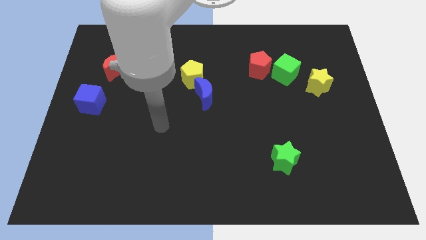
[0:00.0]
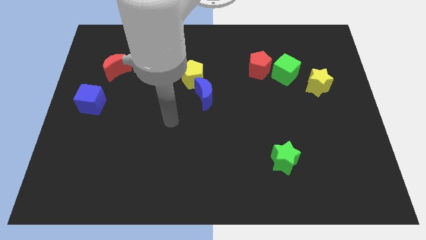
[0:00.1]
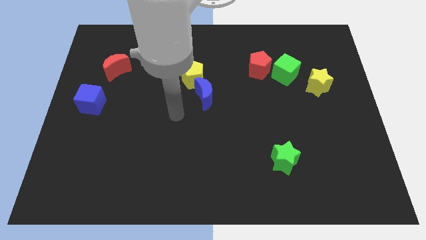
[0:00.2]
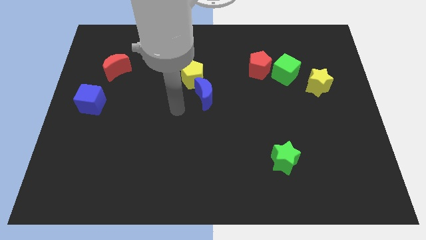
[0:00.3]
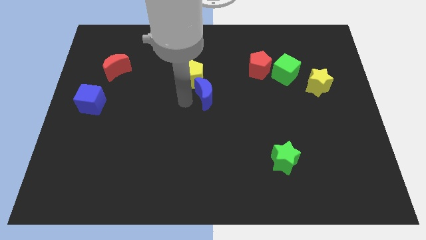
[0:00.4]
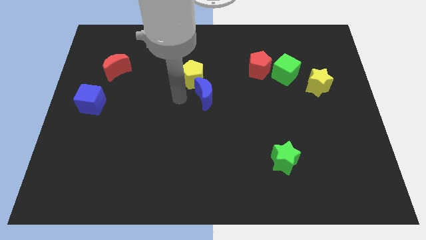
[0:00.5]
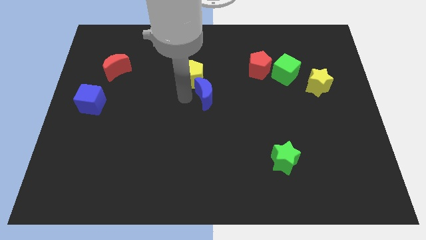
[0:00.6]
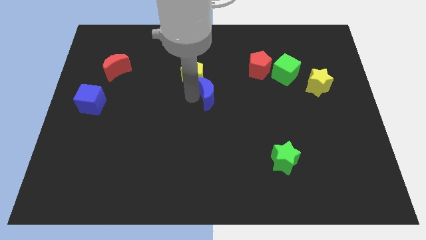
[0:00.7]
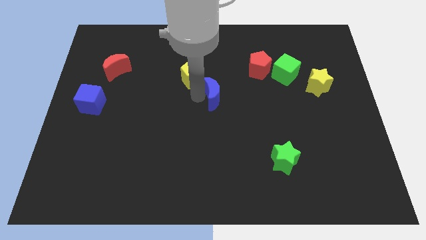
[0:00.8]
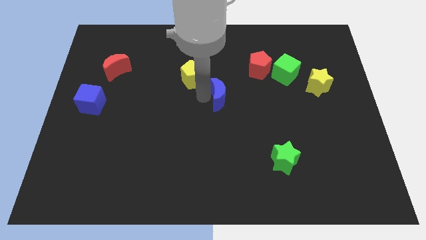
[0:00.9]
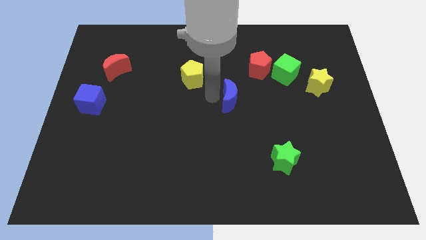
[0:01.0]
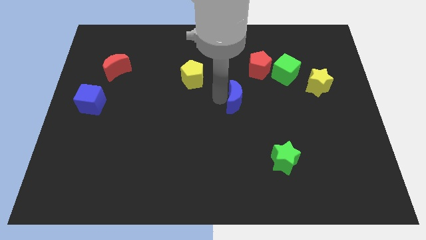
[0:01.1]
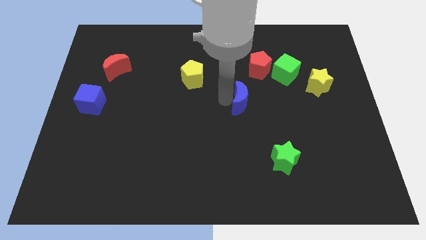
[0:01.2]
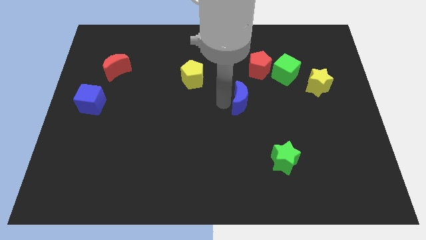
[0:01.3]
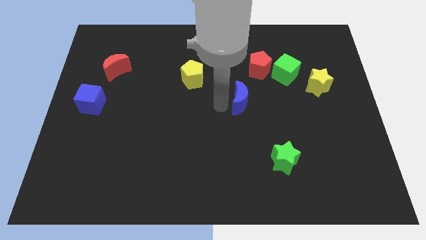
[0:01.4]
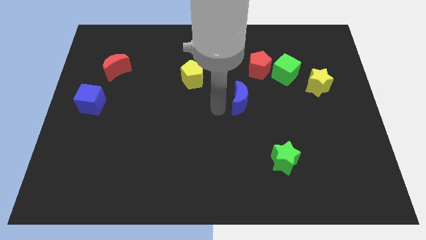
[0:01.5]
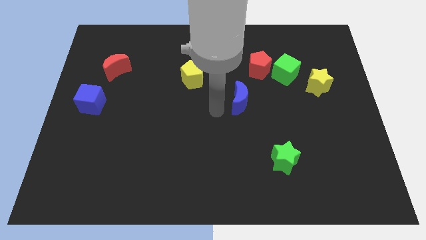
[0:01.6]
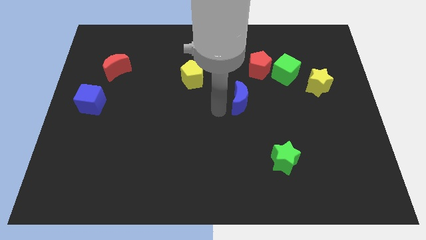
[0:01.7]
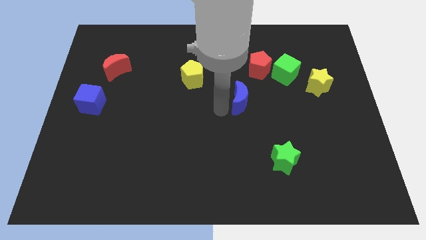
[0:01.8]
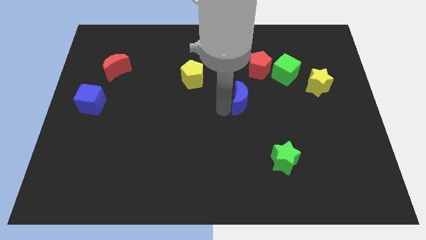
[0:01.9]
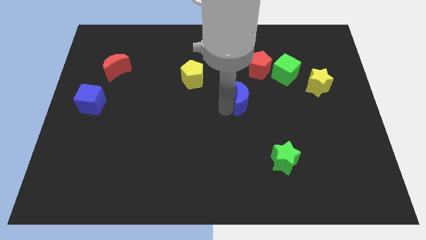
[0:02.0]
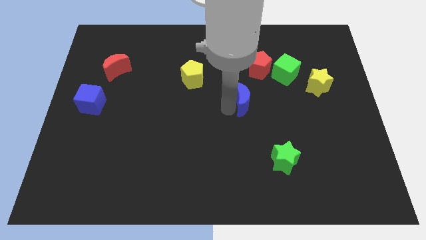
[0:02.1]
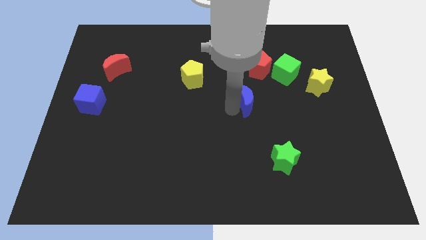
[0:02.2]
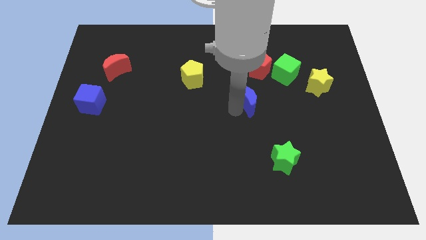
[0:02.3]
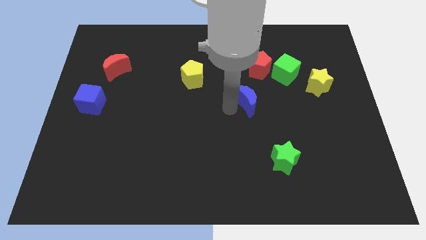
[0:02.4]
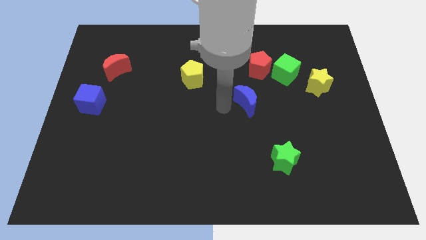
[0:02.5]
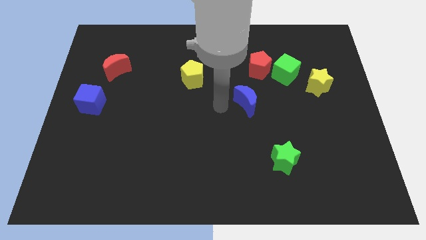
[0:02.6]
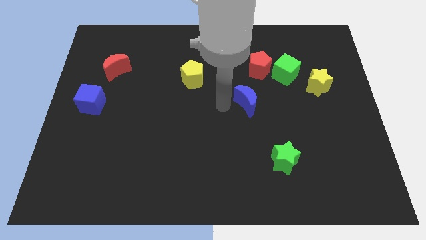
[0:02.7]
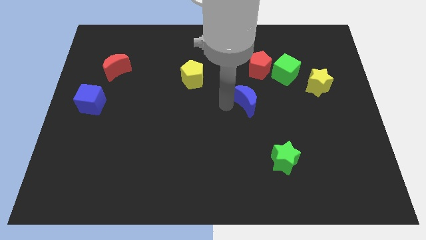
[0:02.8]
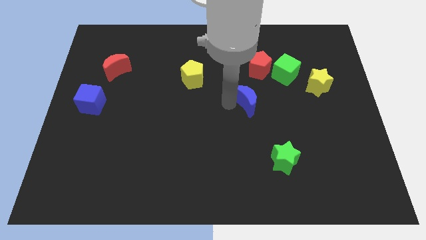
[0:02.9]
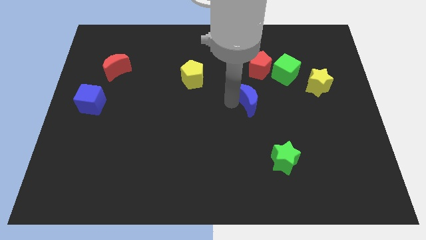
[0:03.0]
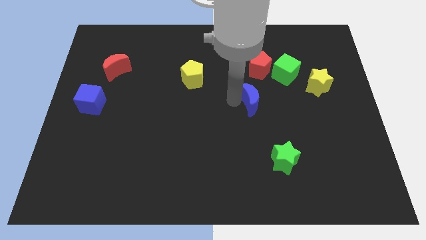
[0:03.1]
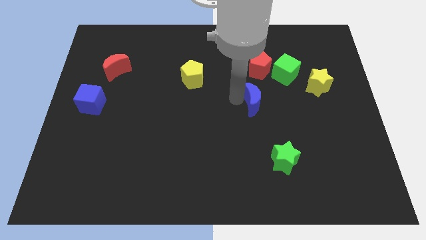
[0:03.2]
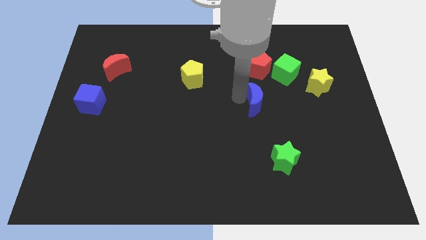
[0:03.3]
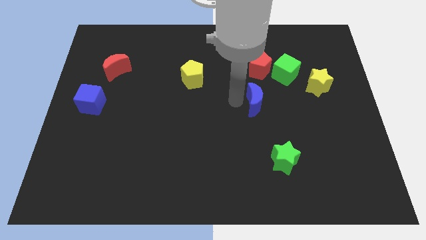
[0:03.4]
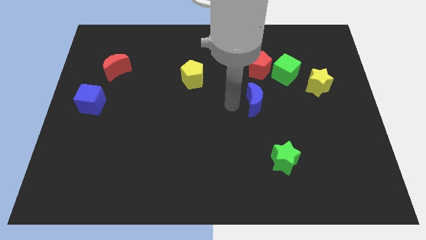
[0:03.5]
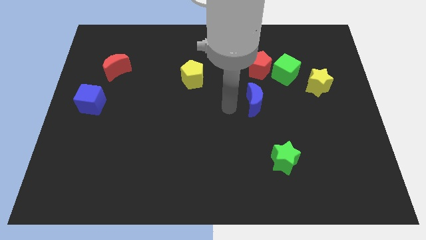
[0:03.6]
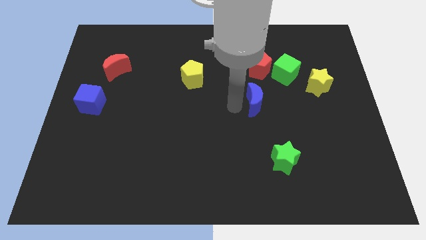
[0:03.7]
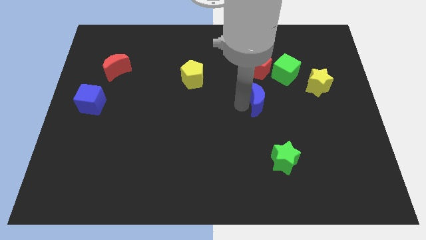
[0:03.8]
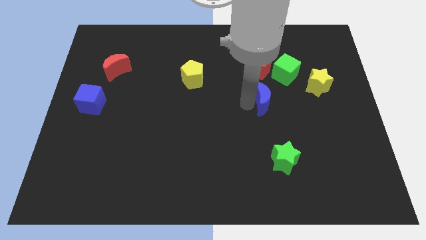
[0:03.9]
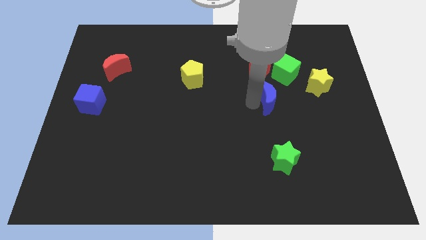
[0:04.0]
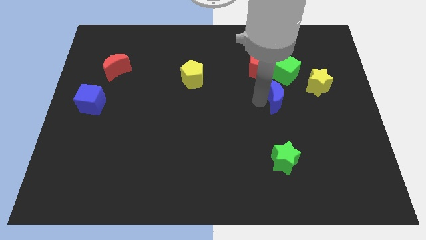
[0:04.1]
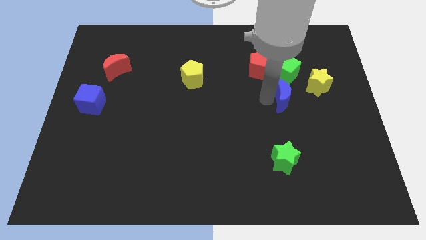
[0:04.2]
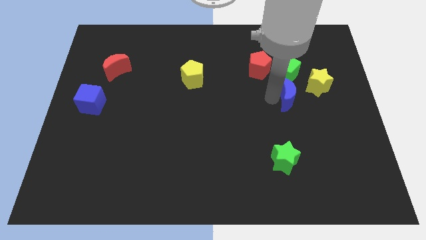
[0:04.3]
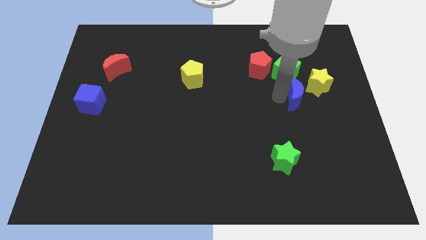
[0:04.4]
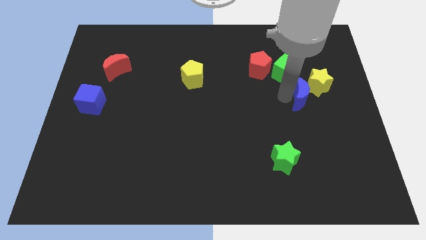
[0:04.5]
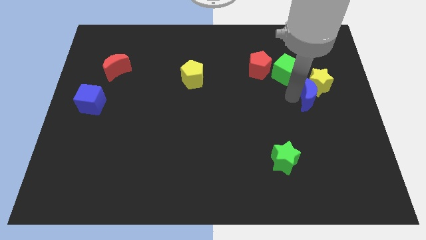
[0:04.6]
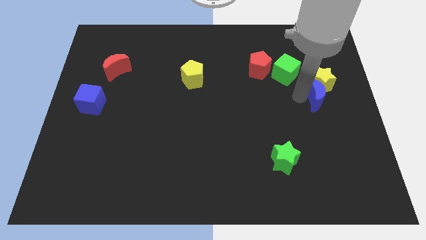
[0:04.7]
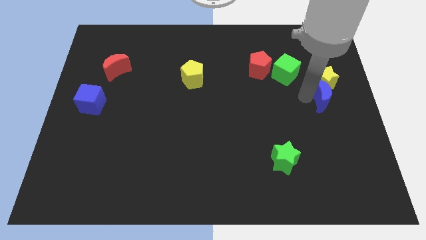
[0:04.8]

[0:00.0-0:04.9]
put the blue moon to the right side

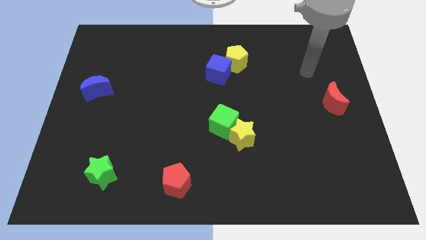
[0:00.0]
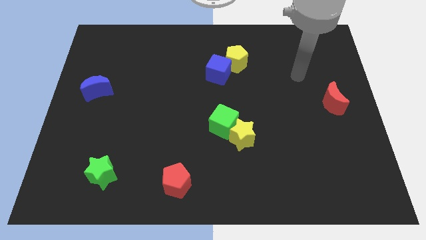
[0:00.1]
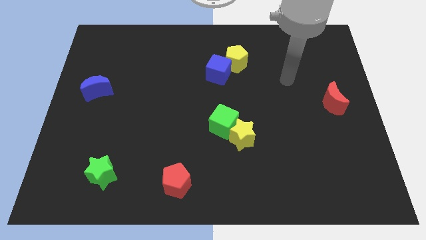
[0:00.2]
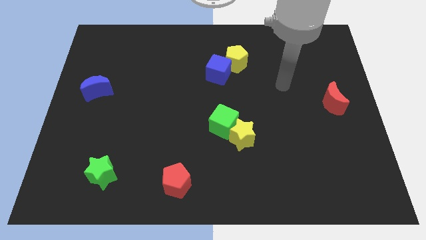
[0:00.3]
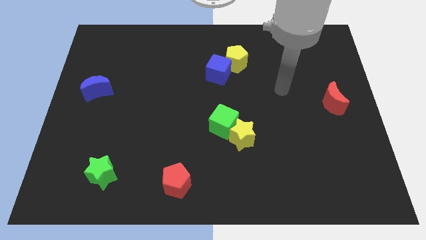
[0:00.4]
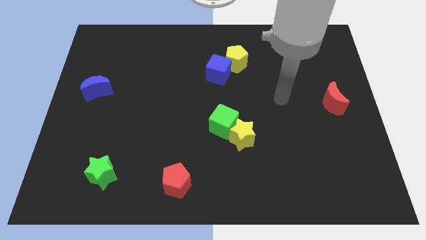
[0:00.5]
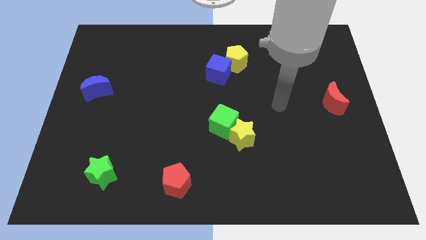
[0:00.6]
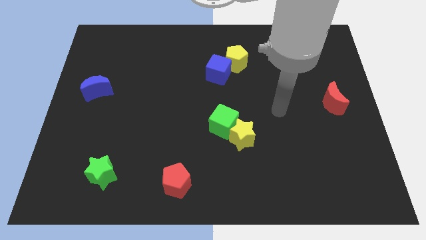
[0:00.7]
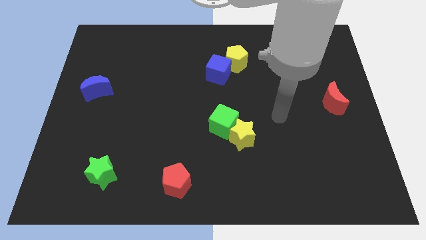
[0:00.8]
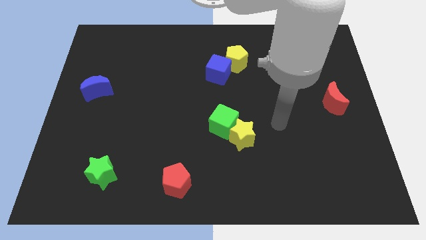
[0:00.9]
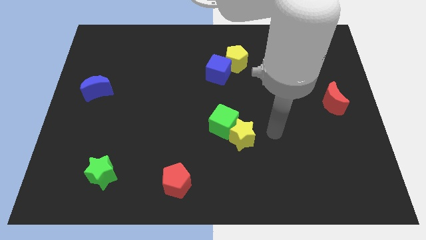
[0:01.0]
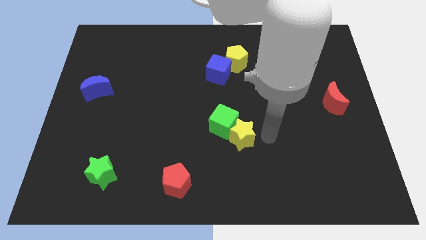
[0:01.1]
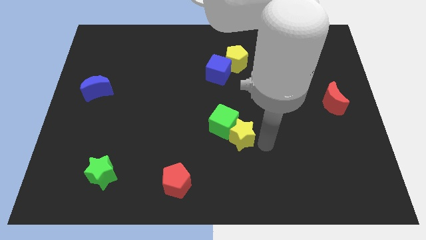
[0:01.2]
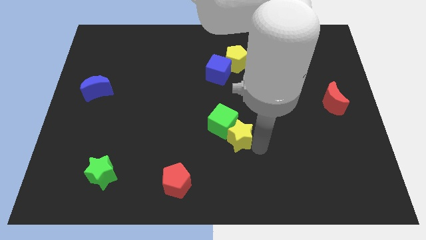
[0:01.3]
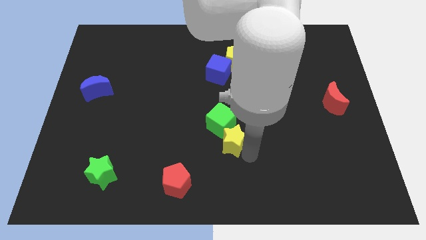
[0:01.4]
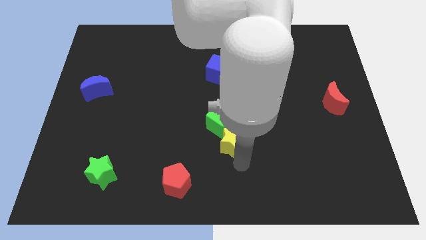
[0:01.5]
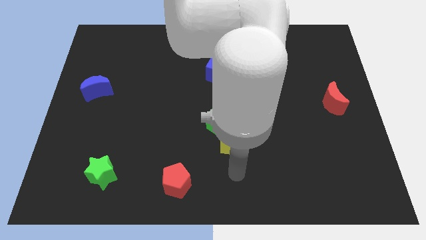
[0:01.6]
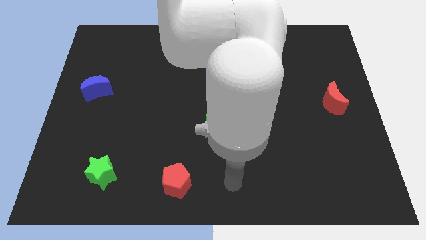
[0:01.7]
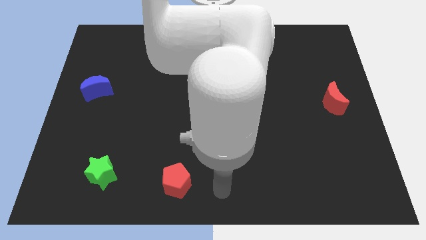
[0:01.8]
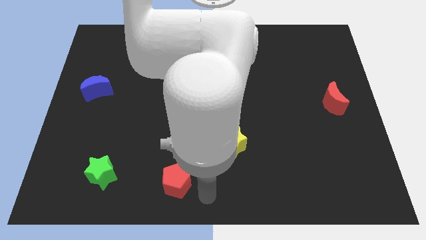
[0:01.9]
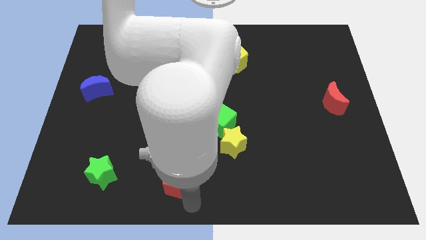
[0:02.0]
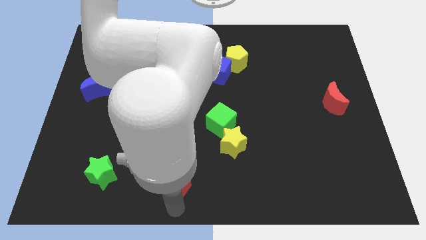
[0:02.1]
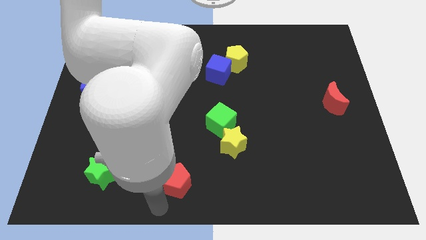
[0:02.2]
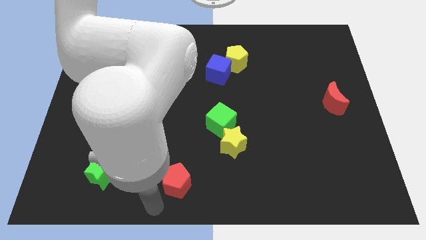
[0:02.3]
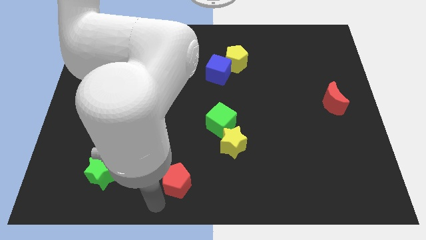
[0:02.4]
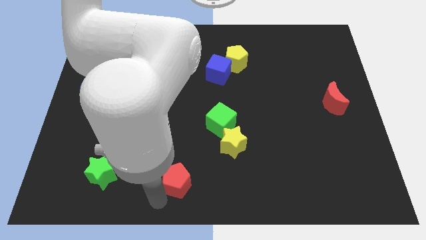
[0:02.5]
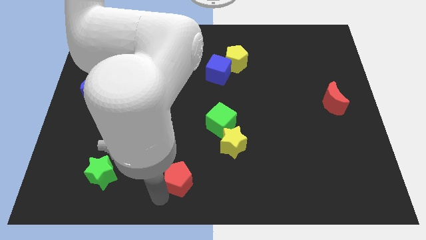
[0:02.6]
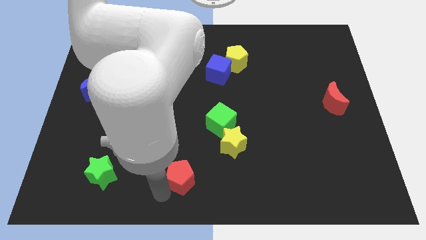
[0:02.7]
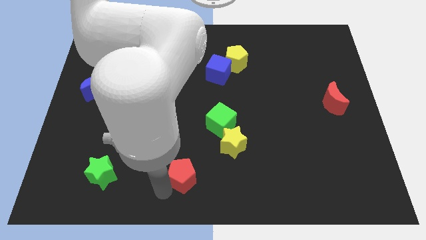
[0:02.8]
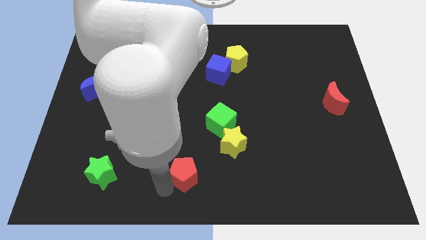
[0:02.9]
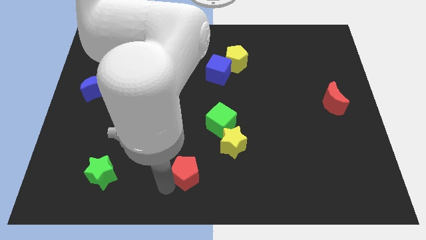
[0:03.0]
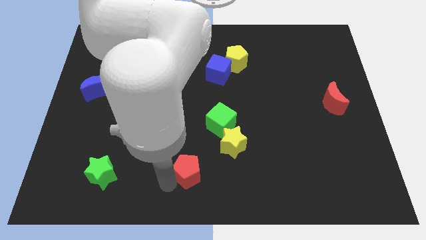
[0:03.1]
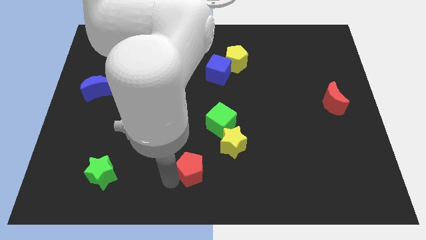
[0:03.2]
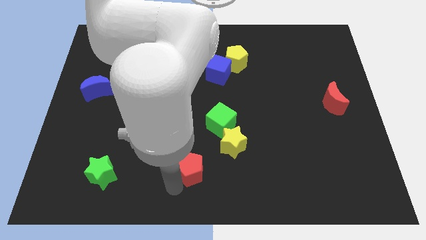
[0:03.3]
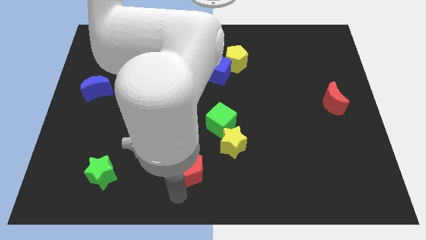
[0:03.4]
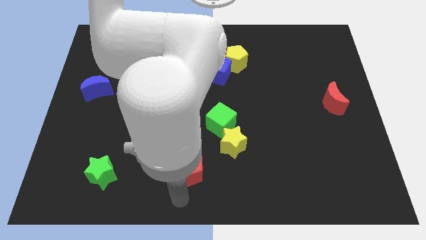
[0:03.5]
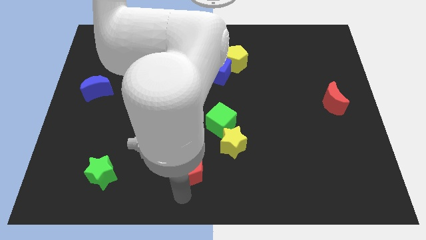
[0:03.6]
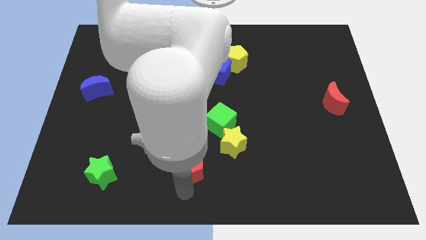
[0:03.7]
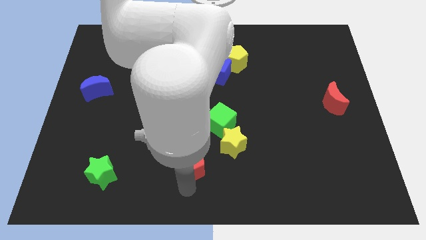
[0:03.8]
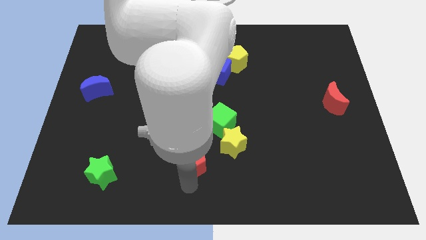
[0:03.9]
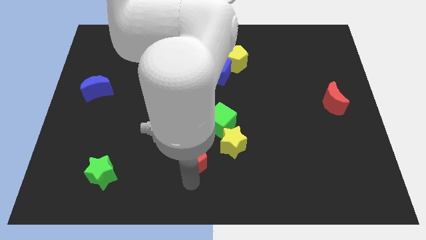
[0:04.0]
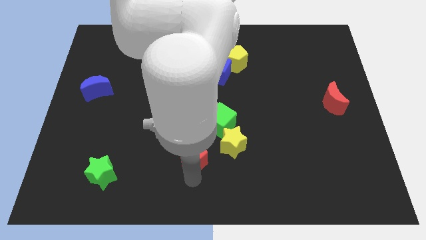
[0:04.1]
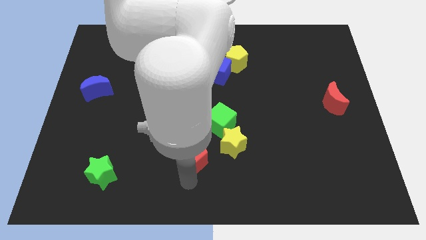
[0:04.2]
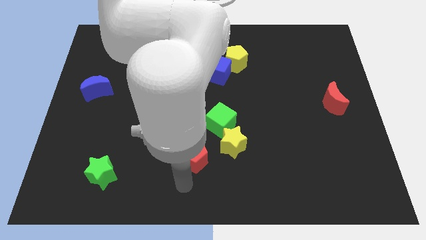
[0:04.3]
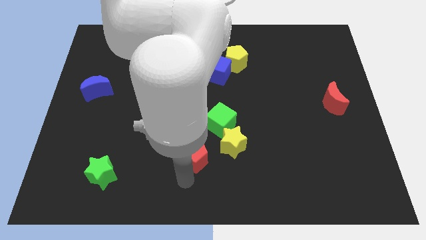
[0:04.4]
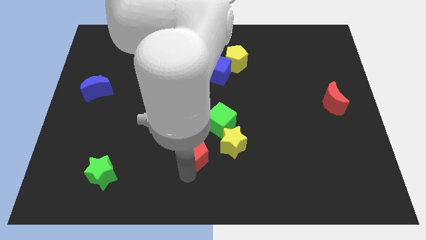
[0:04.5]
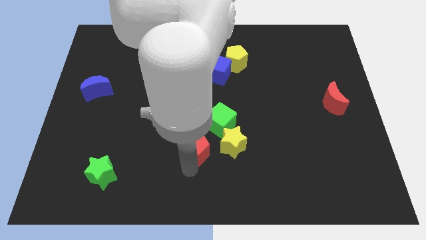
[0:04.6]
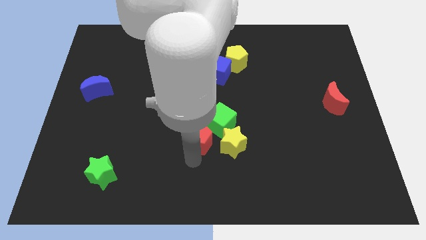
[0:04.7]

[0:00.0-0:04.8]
push the red pentagon to the center of the board
